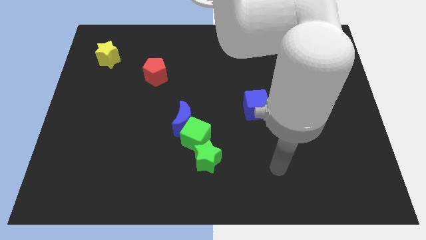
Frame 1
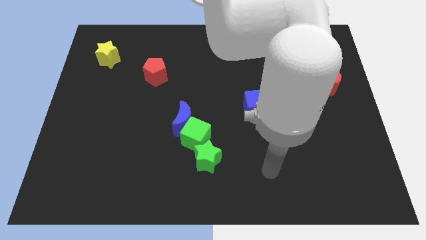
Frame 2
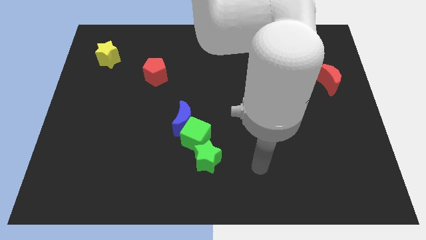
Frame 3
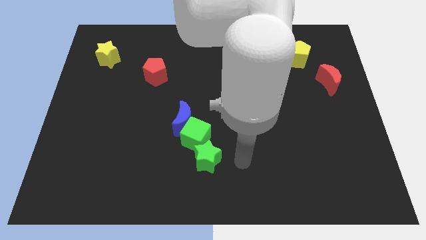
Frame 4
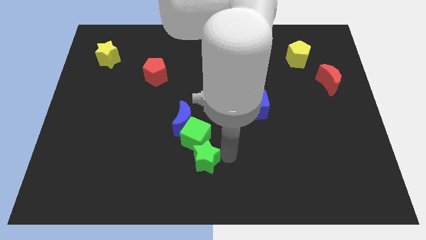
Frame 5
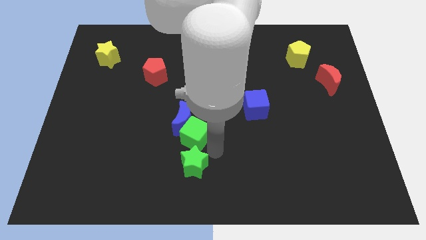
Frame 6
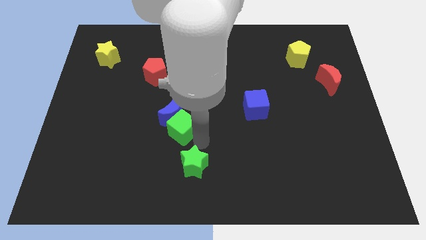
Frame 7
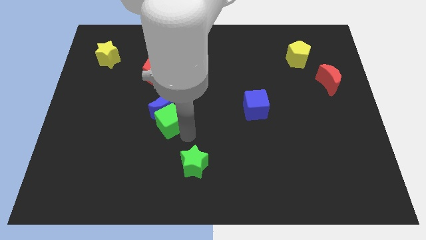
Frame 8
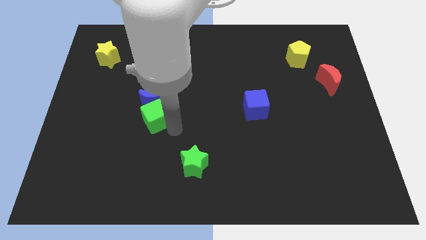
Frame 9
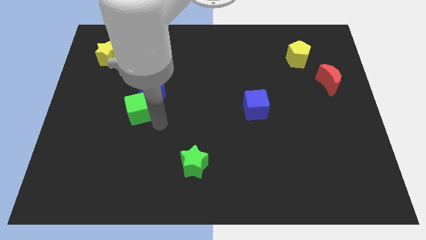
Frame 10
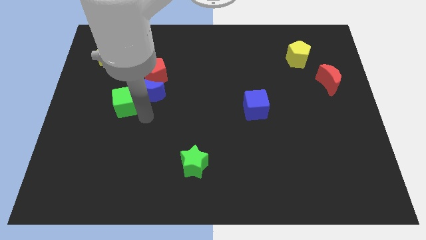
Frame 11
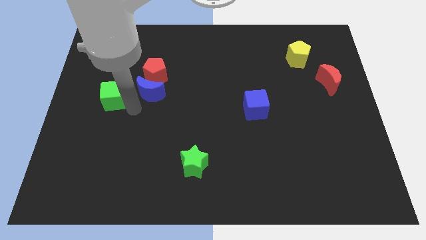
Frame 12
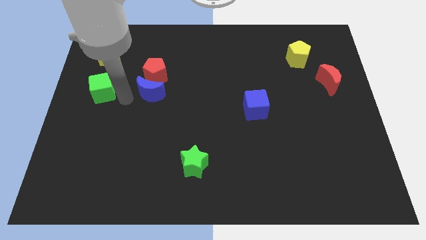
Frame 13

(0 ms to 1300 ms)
move the blue moon away from the green cube

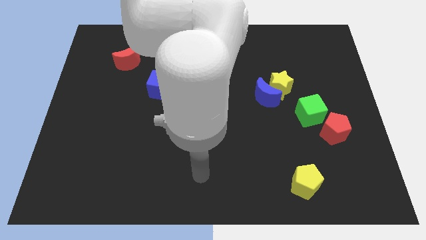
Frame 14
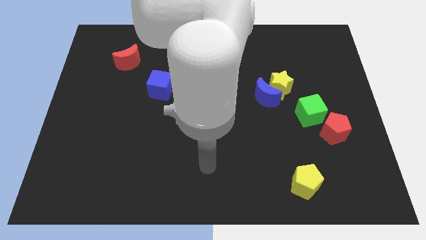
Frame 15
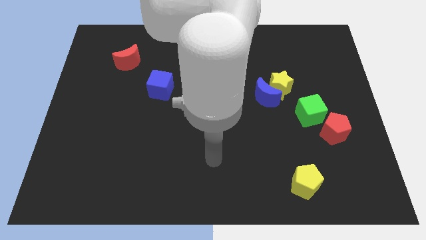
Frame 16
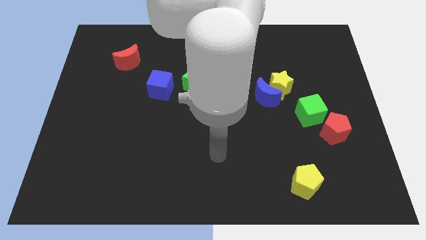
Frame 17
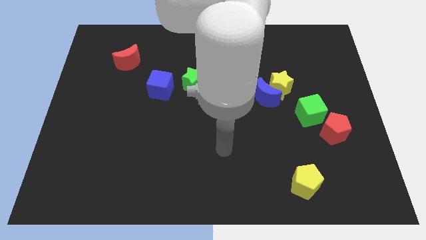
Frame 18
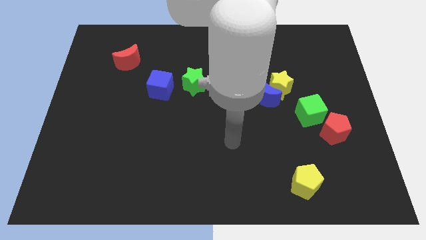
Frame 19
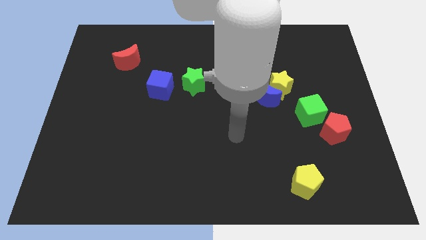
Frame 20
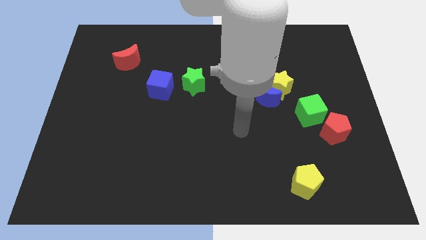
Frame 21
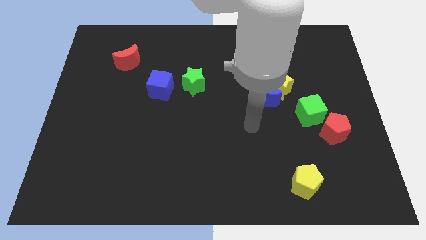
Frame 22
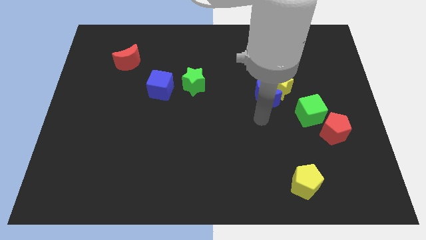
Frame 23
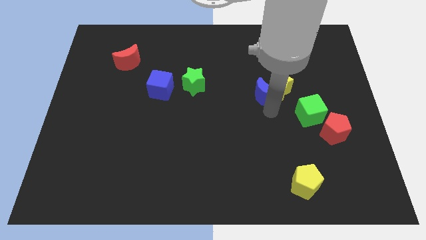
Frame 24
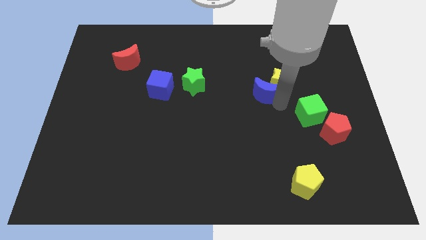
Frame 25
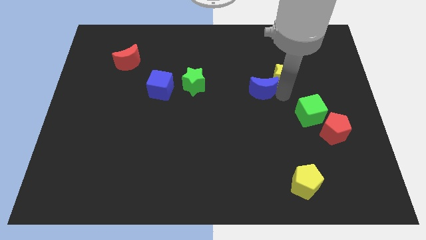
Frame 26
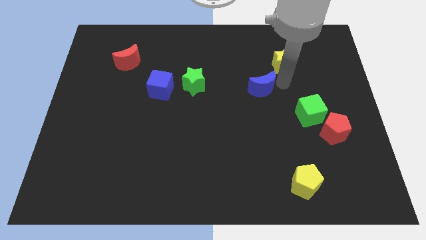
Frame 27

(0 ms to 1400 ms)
separate the blue moon from the yellow star

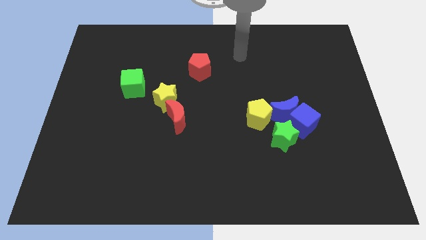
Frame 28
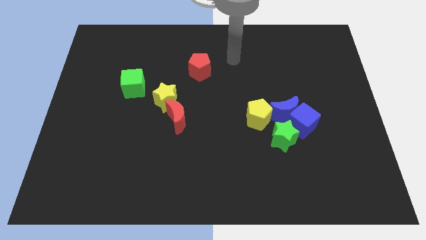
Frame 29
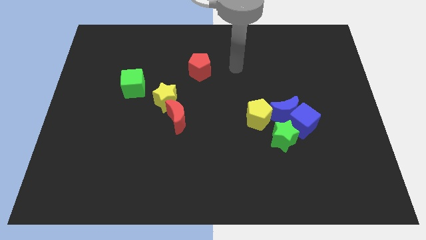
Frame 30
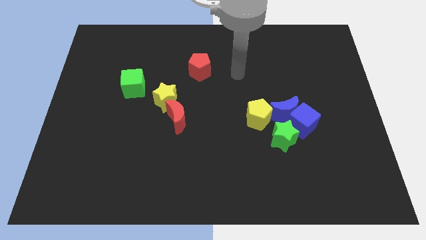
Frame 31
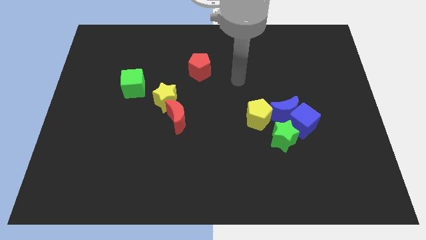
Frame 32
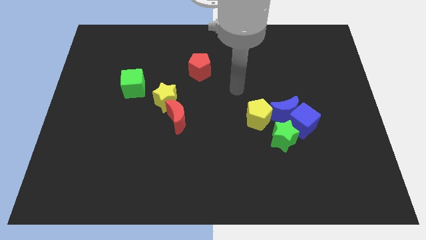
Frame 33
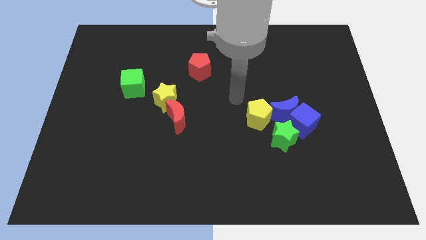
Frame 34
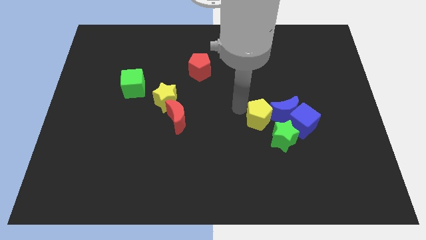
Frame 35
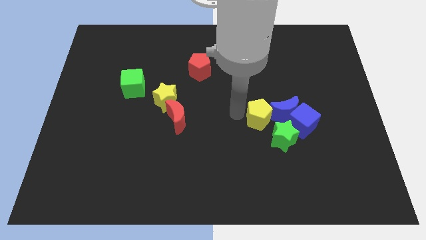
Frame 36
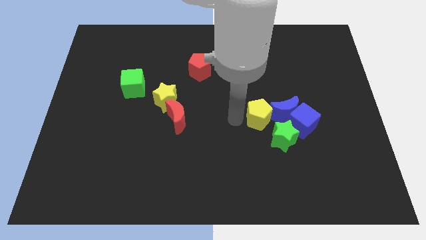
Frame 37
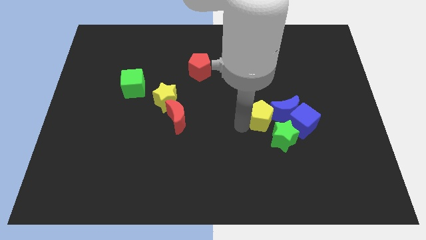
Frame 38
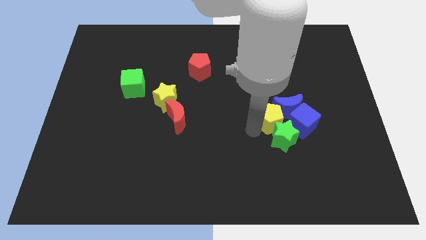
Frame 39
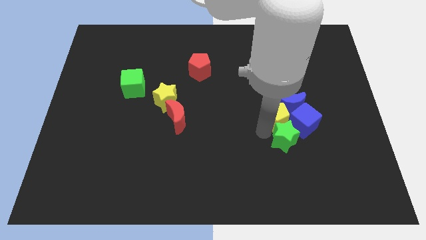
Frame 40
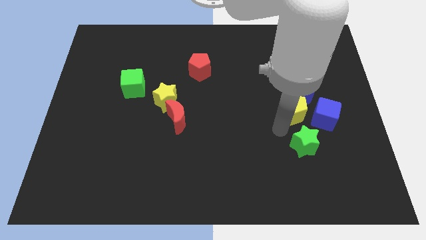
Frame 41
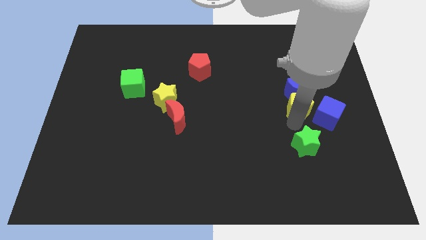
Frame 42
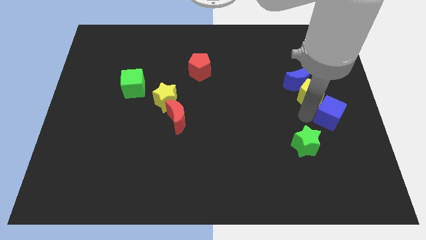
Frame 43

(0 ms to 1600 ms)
move the blue moon away from the blue cube, yellow pentagon, and green star

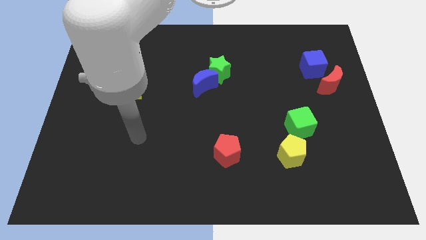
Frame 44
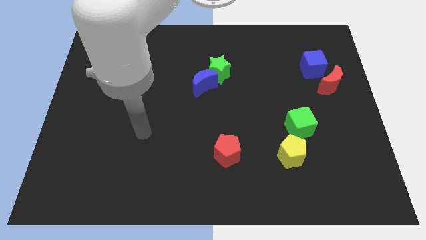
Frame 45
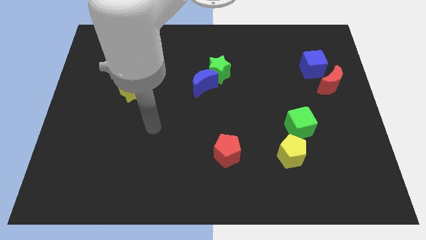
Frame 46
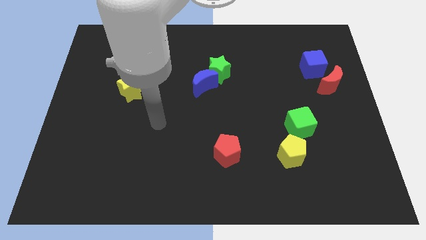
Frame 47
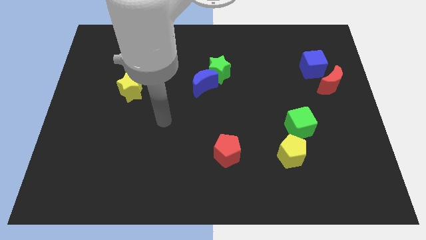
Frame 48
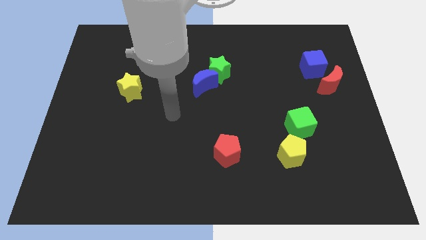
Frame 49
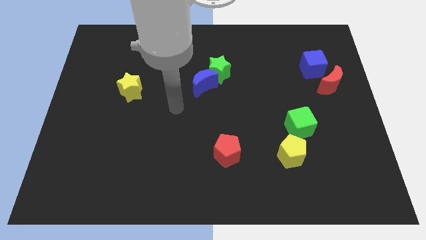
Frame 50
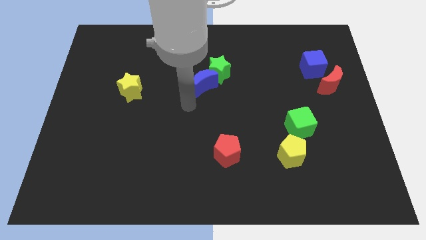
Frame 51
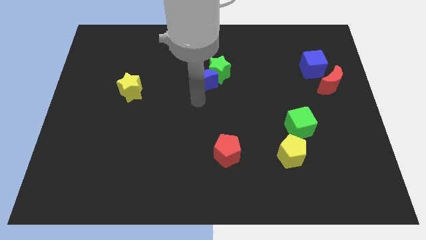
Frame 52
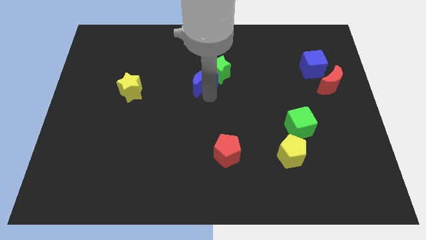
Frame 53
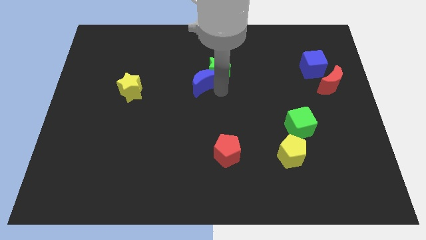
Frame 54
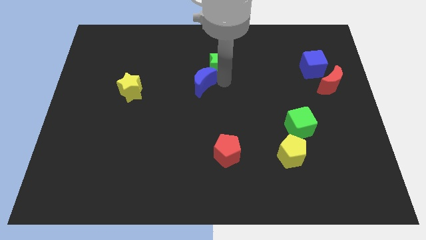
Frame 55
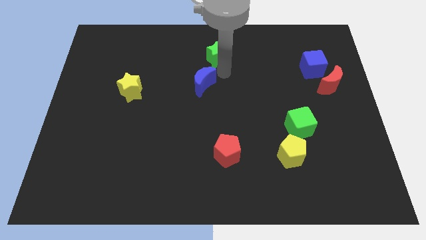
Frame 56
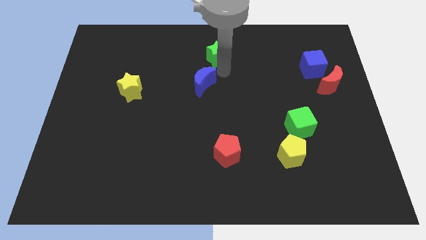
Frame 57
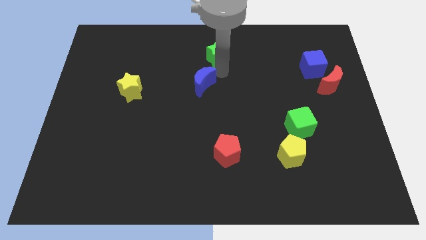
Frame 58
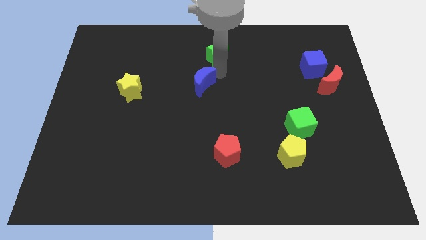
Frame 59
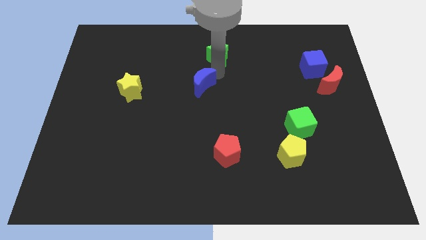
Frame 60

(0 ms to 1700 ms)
separate the blue moon from the green star

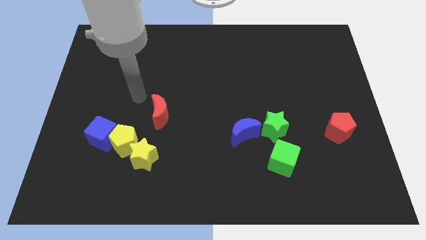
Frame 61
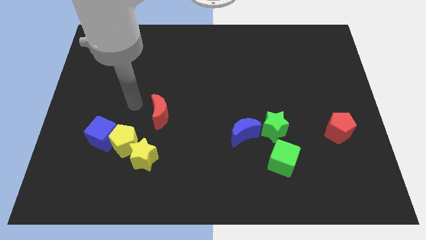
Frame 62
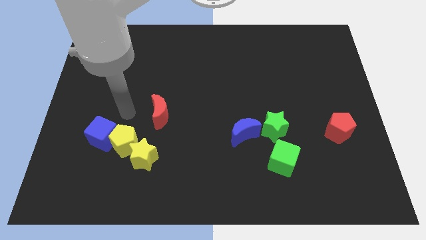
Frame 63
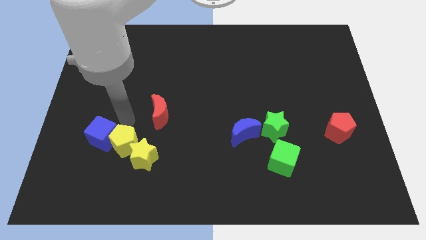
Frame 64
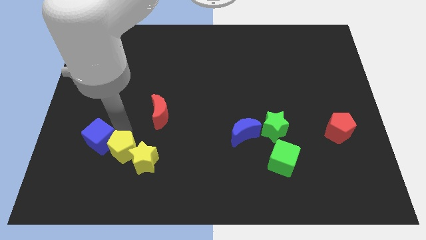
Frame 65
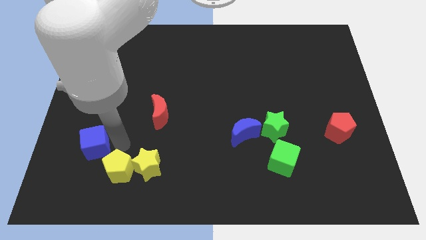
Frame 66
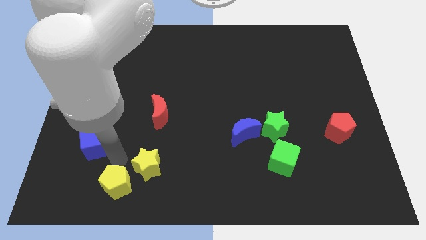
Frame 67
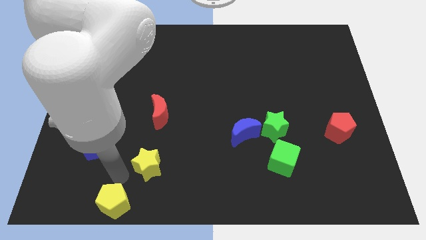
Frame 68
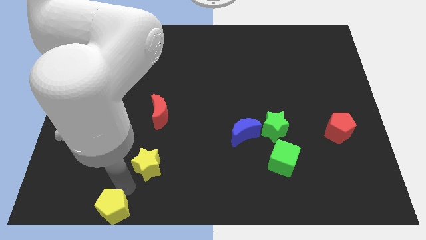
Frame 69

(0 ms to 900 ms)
separate the yellow star from the yellow pentagon

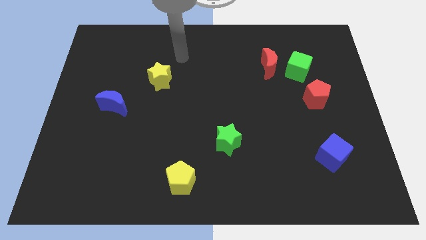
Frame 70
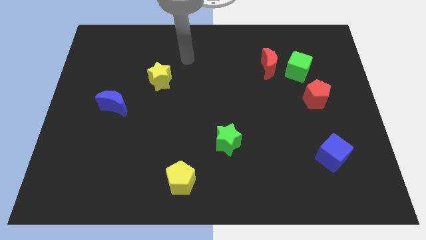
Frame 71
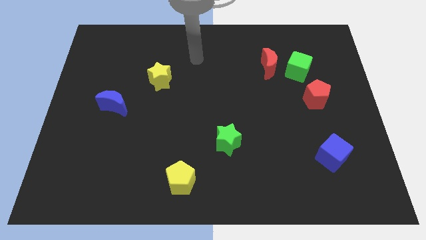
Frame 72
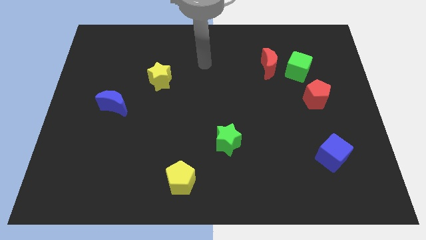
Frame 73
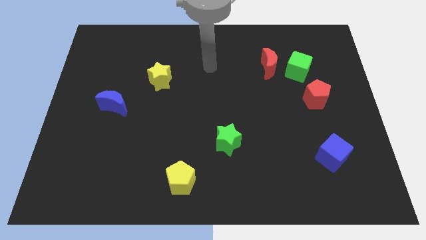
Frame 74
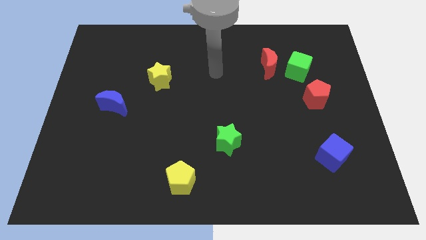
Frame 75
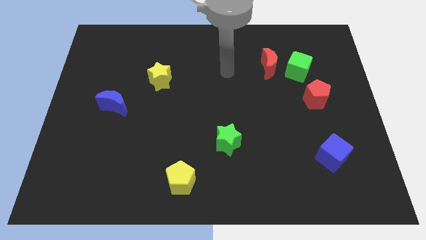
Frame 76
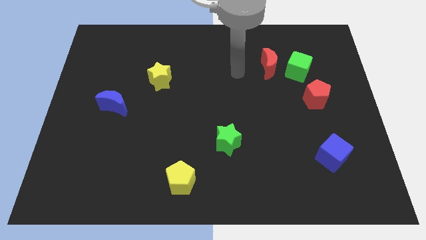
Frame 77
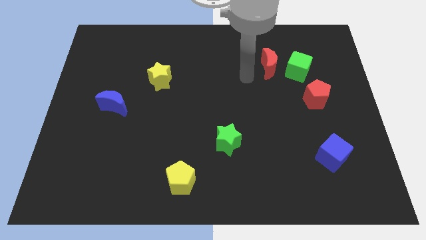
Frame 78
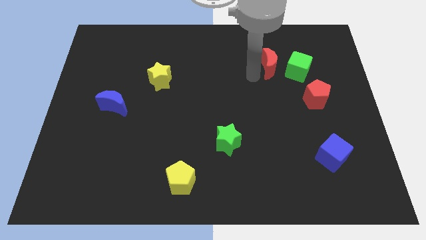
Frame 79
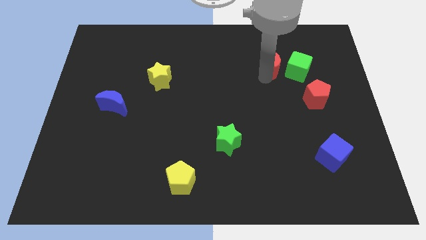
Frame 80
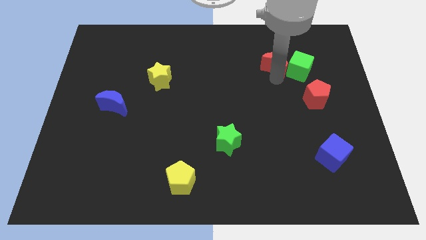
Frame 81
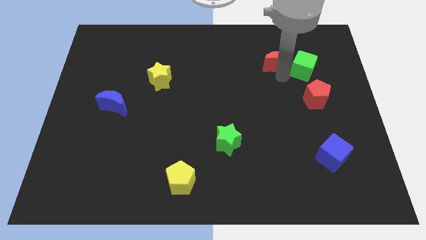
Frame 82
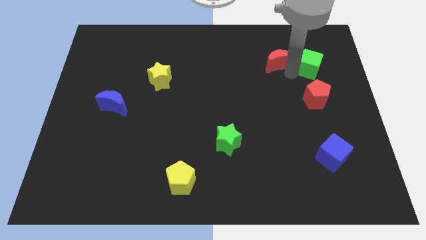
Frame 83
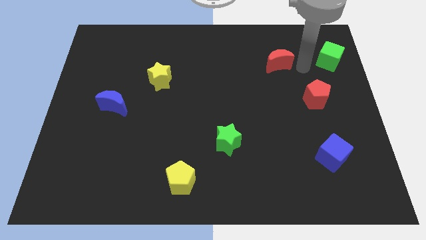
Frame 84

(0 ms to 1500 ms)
separate the red moon from the green cube

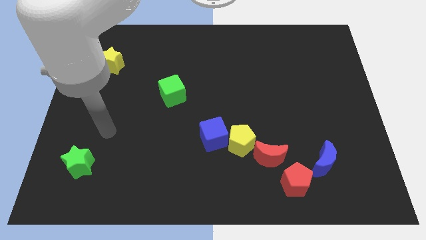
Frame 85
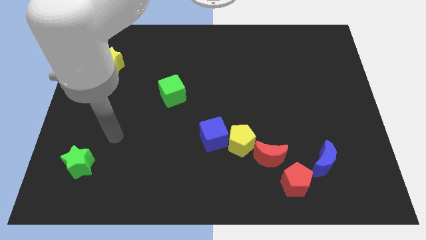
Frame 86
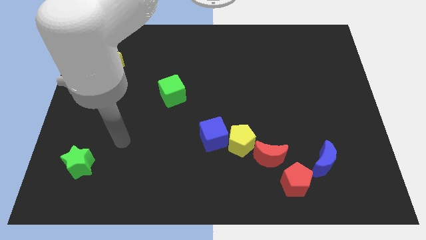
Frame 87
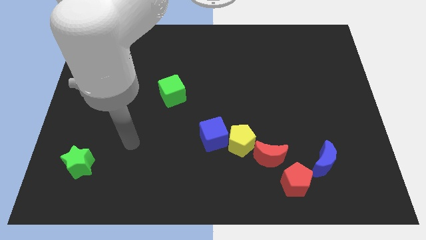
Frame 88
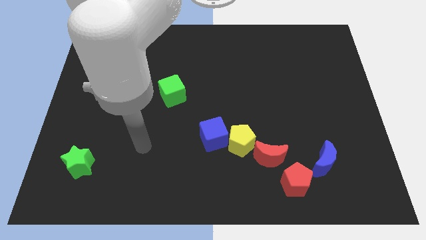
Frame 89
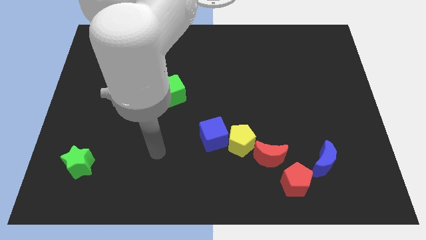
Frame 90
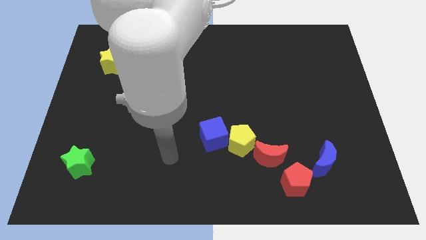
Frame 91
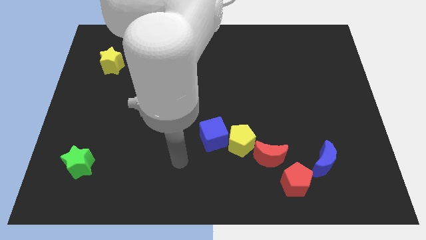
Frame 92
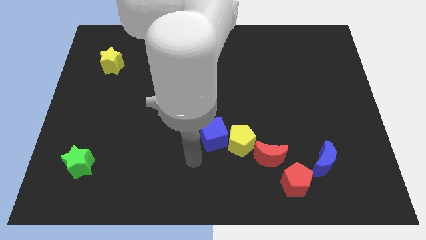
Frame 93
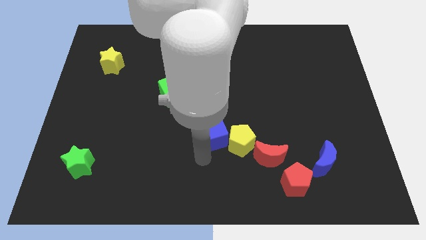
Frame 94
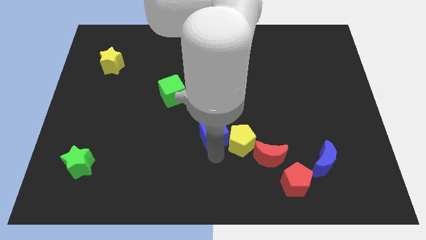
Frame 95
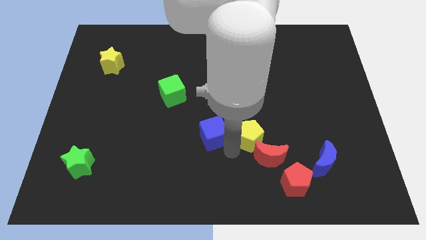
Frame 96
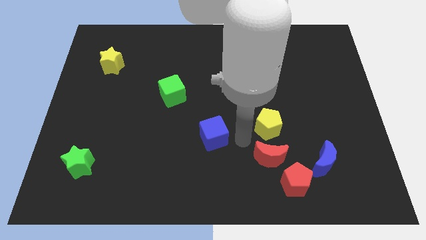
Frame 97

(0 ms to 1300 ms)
separate the blue cube from the yellow pentagon
